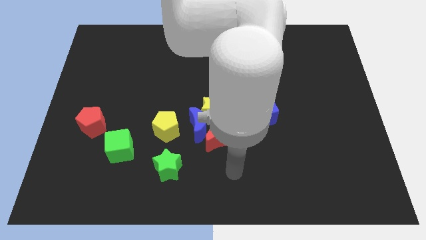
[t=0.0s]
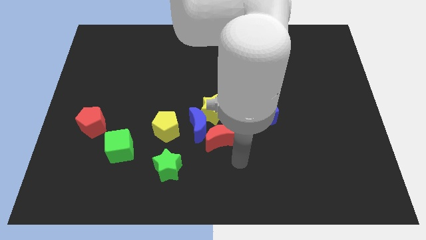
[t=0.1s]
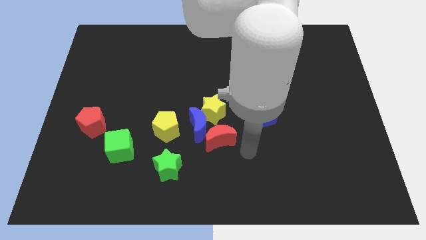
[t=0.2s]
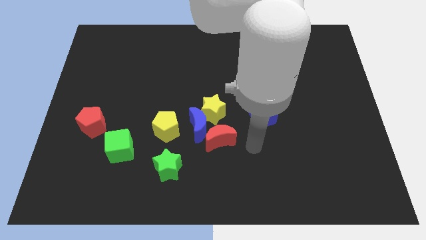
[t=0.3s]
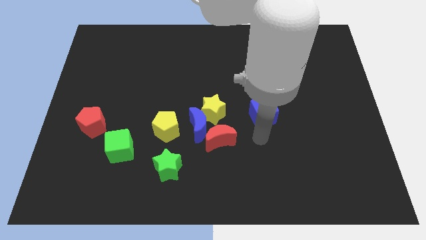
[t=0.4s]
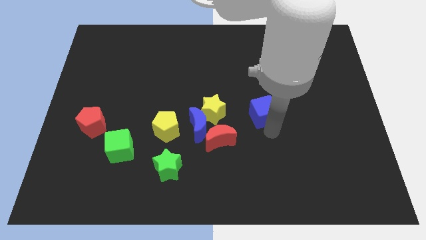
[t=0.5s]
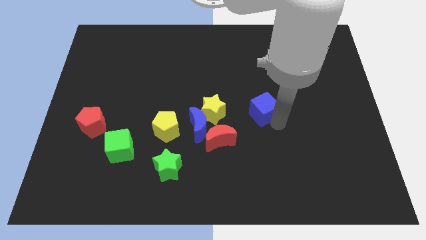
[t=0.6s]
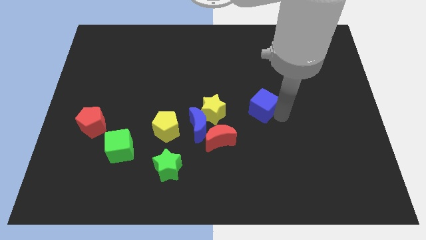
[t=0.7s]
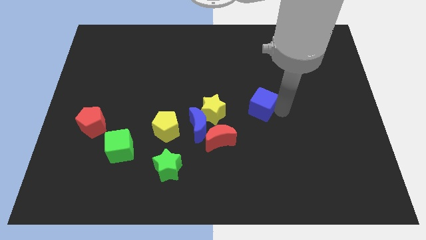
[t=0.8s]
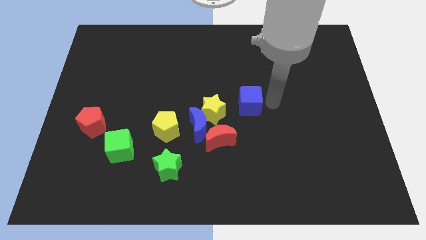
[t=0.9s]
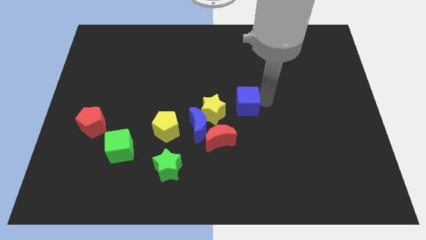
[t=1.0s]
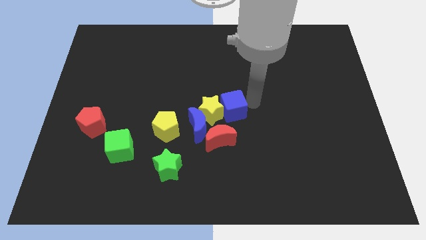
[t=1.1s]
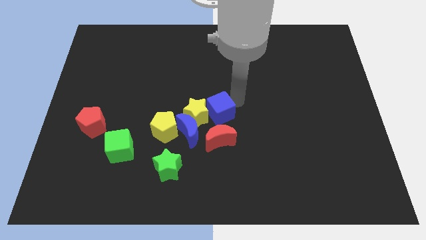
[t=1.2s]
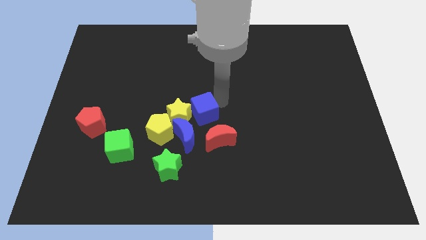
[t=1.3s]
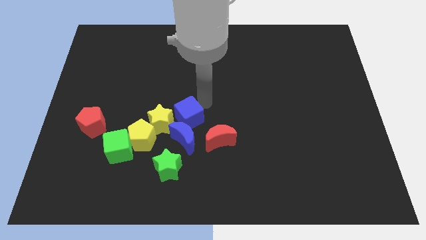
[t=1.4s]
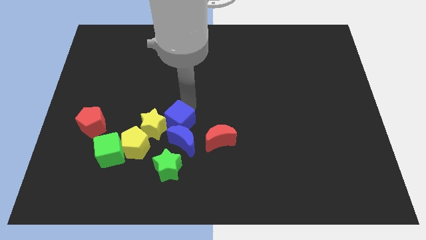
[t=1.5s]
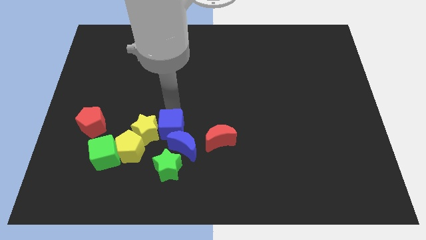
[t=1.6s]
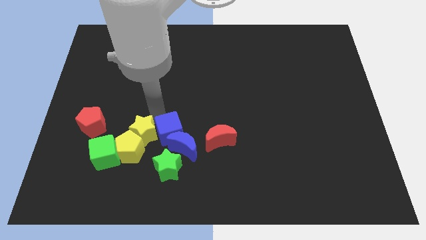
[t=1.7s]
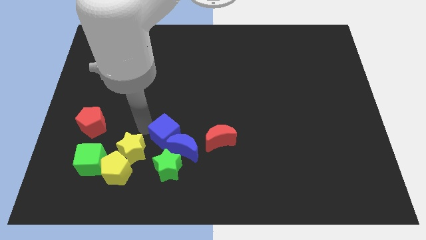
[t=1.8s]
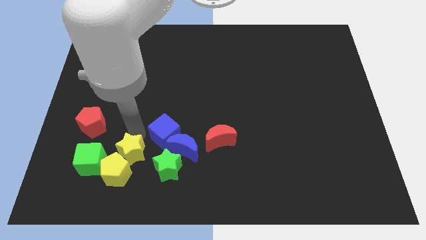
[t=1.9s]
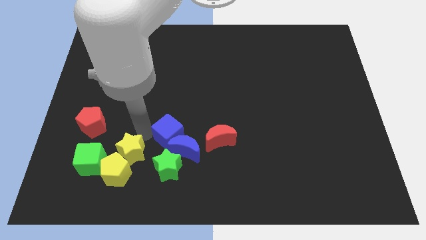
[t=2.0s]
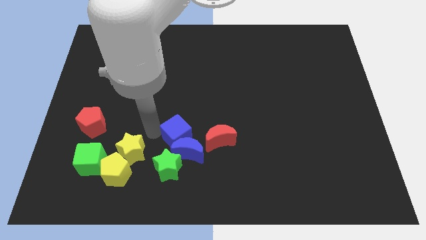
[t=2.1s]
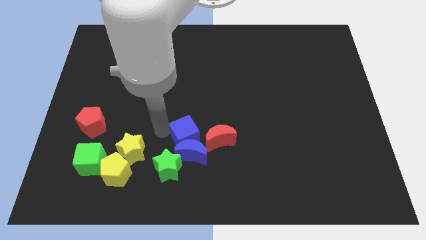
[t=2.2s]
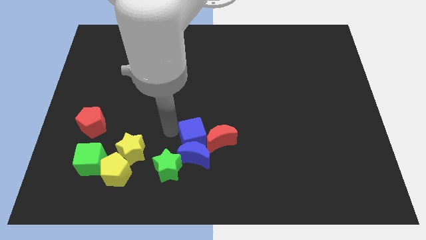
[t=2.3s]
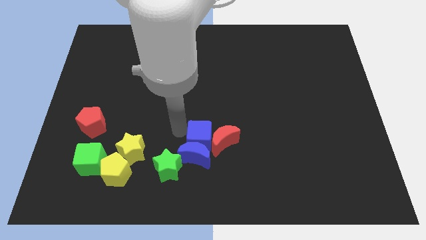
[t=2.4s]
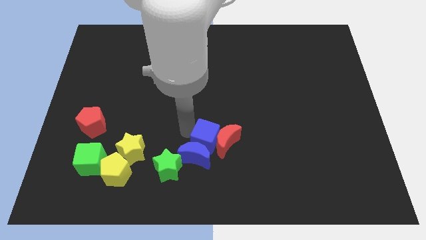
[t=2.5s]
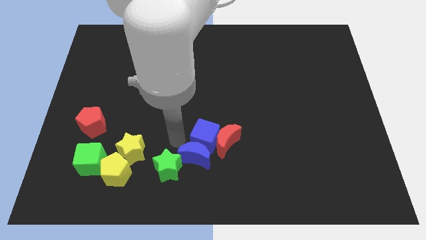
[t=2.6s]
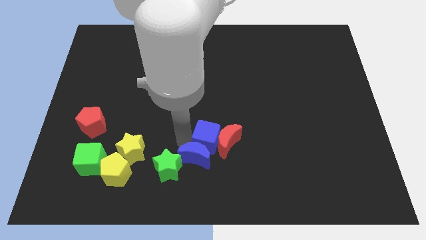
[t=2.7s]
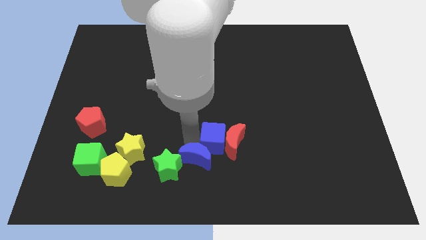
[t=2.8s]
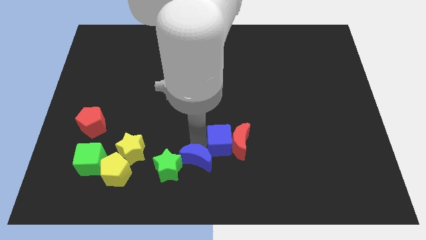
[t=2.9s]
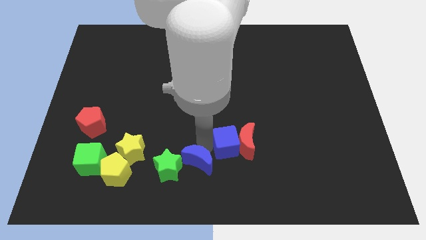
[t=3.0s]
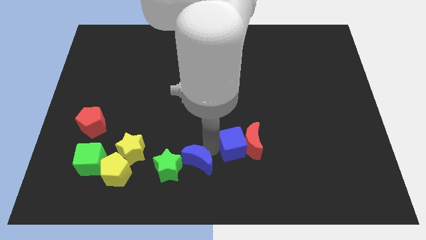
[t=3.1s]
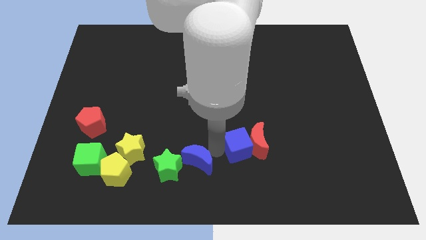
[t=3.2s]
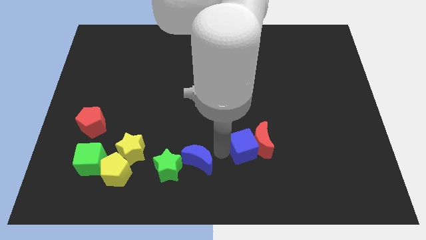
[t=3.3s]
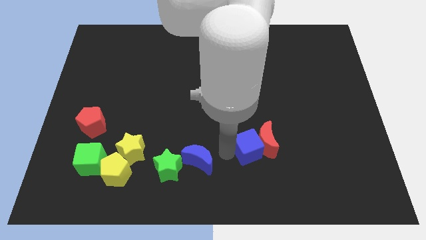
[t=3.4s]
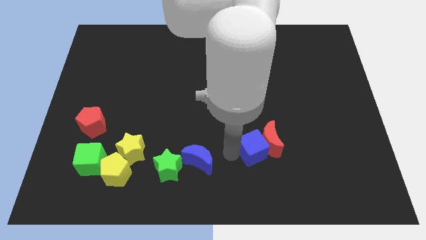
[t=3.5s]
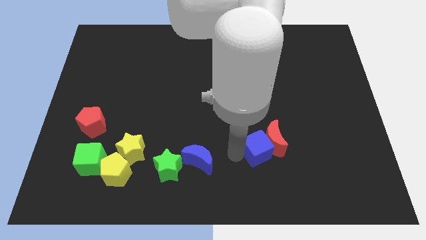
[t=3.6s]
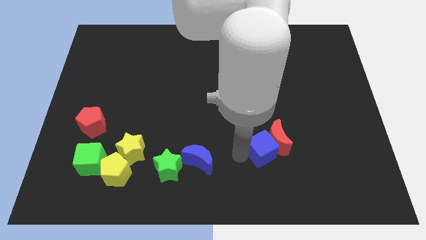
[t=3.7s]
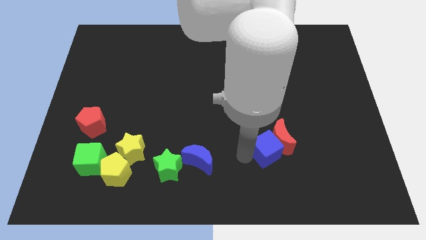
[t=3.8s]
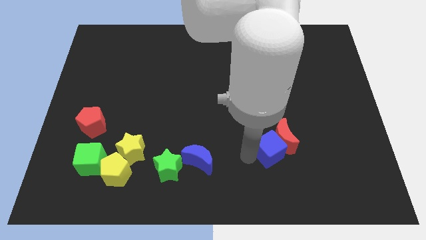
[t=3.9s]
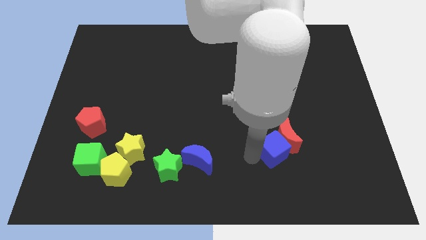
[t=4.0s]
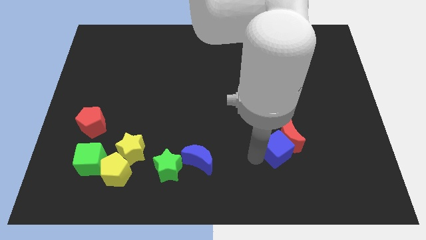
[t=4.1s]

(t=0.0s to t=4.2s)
slide the blue cube slightly down and right

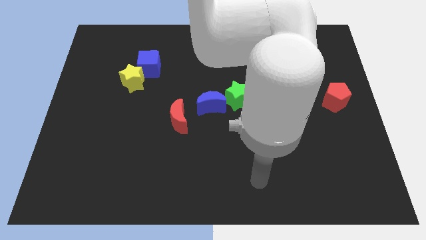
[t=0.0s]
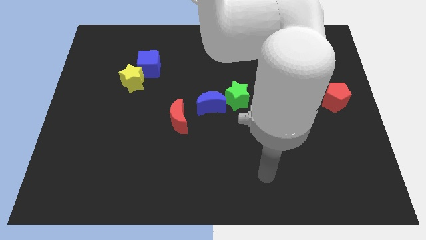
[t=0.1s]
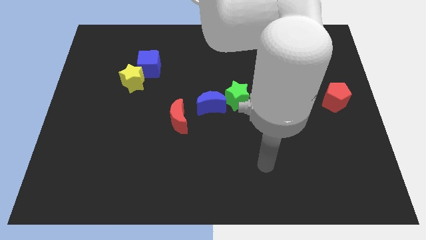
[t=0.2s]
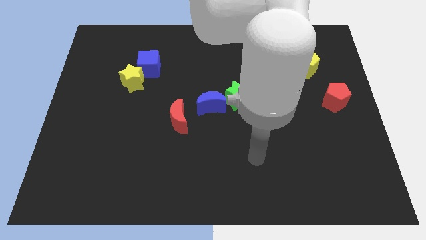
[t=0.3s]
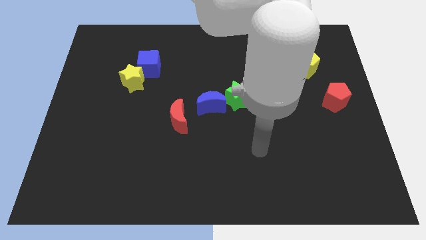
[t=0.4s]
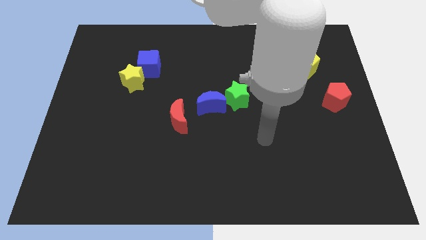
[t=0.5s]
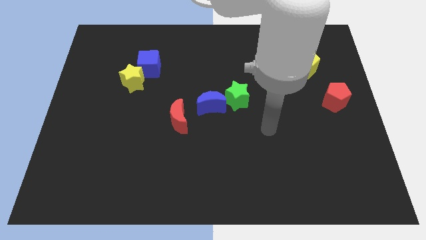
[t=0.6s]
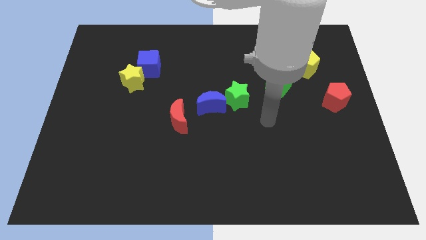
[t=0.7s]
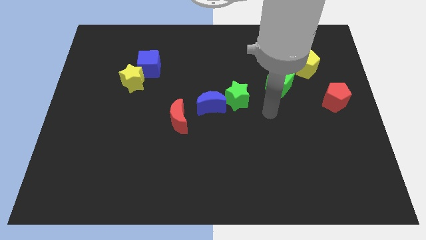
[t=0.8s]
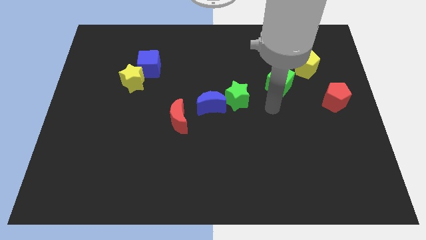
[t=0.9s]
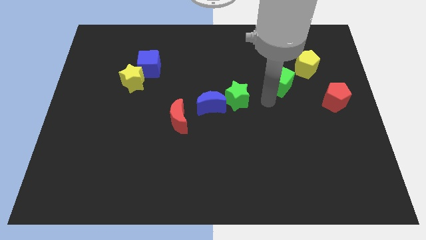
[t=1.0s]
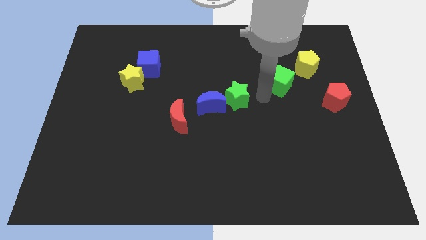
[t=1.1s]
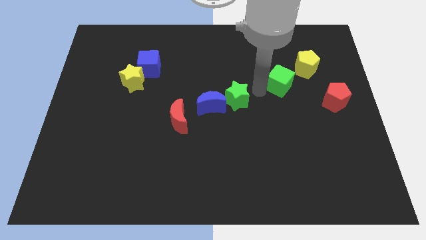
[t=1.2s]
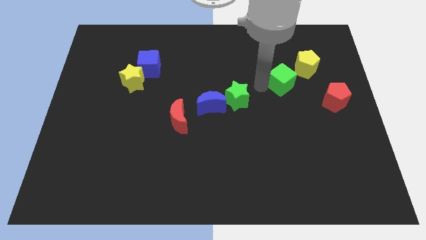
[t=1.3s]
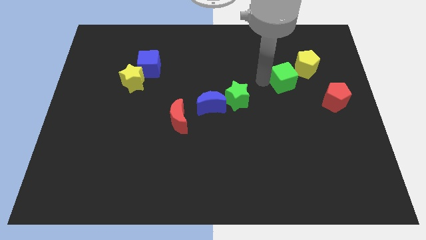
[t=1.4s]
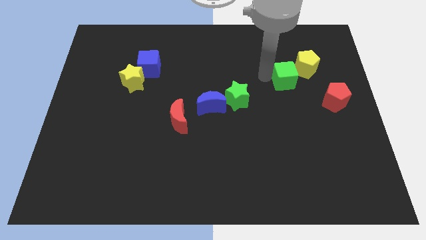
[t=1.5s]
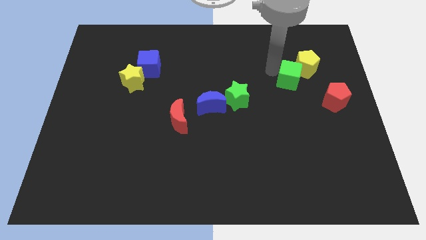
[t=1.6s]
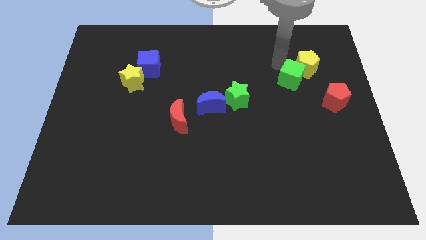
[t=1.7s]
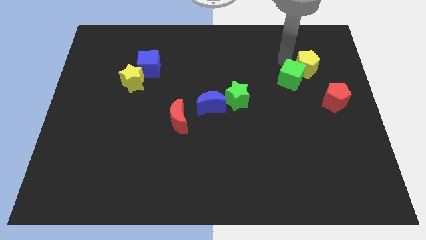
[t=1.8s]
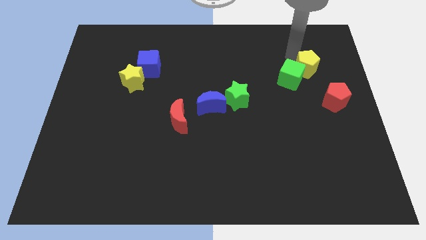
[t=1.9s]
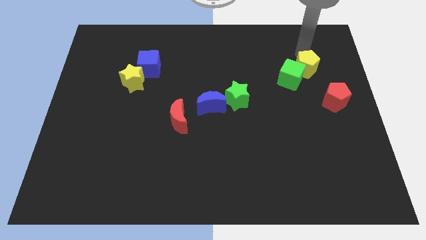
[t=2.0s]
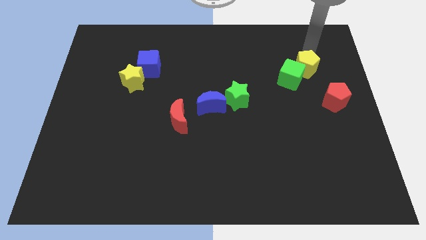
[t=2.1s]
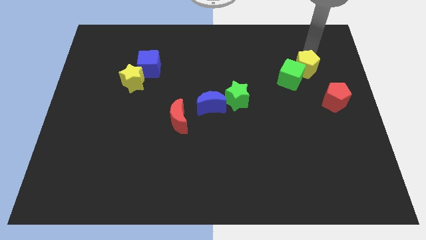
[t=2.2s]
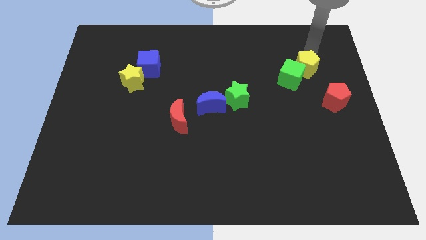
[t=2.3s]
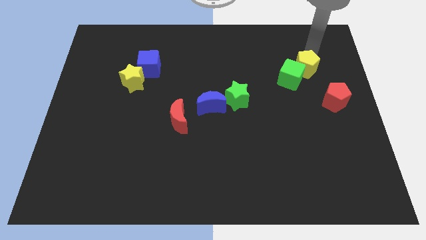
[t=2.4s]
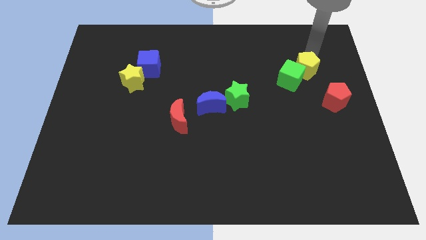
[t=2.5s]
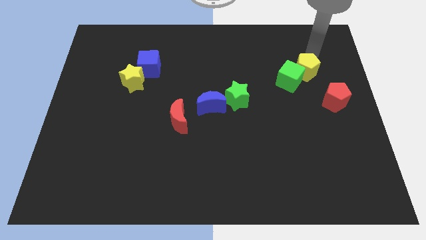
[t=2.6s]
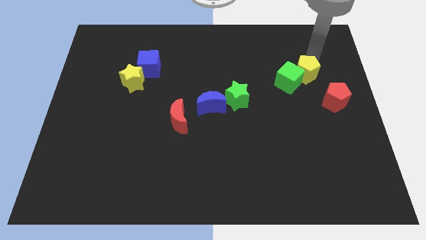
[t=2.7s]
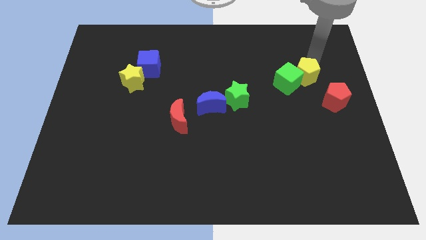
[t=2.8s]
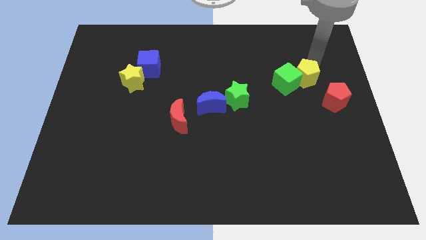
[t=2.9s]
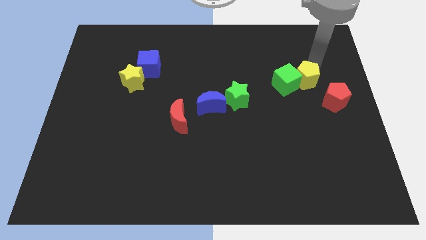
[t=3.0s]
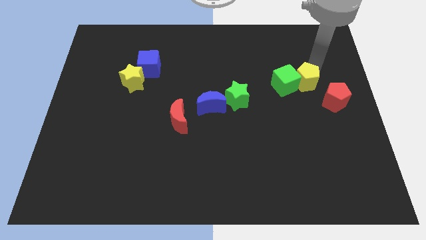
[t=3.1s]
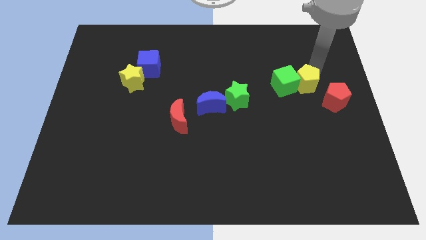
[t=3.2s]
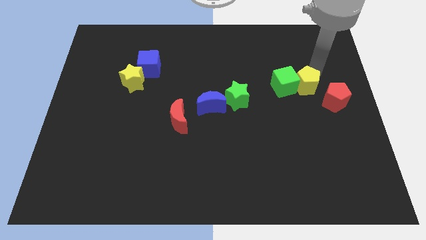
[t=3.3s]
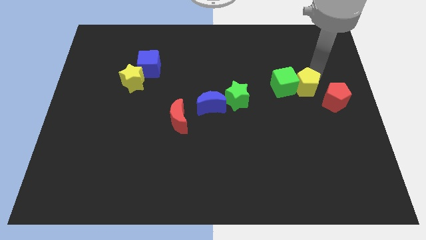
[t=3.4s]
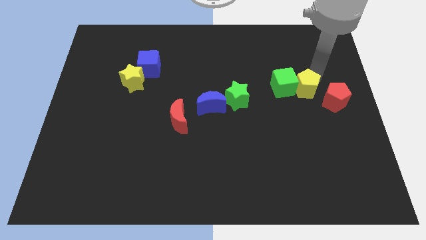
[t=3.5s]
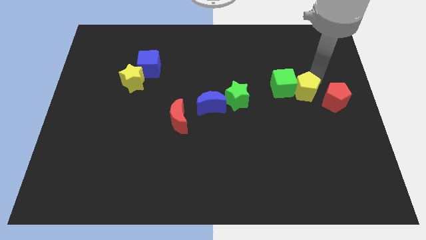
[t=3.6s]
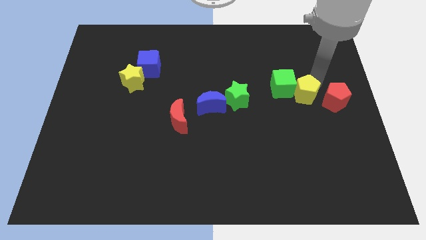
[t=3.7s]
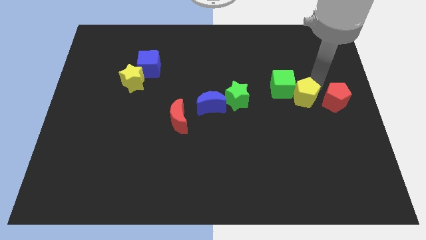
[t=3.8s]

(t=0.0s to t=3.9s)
slightly move the yellow pentagon downwards and then left
